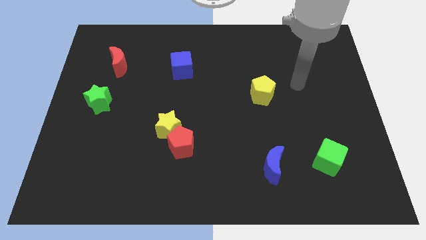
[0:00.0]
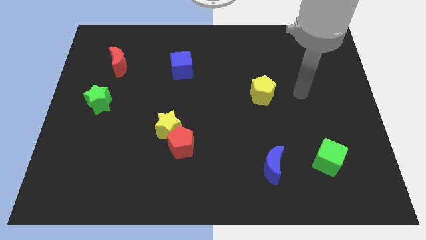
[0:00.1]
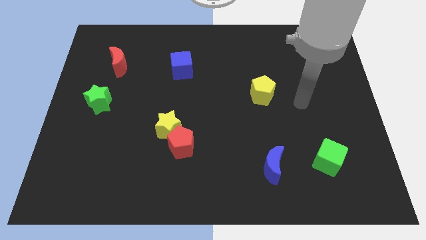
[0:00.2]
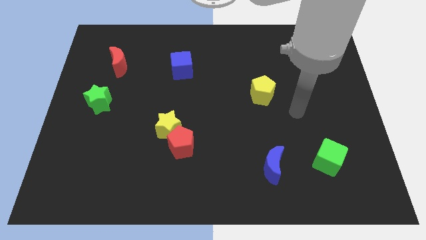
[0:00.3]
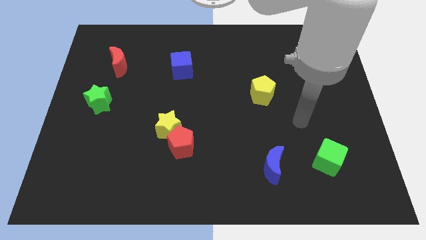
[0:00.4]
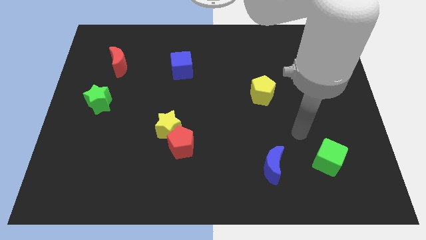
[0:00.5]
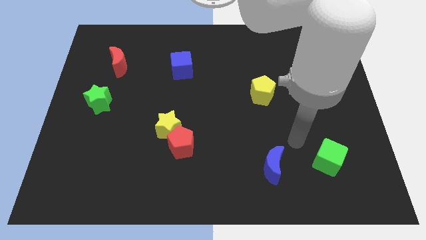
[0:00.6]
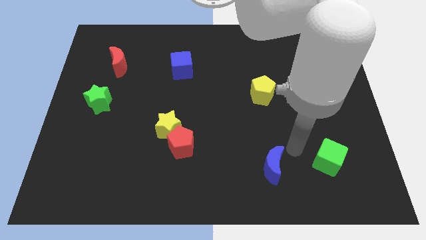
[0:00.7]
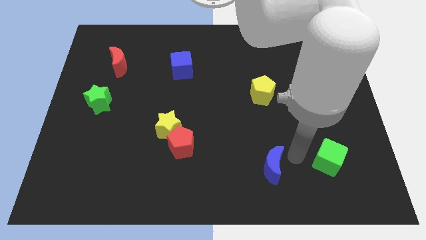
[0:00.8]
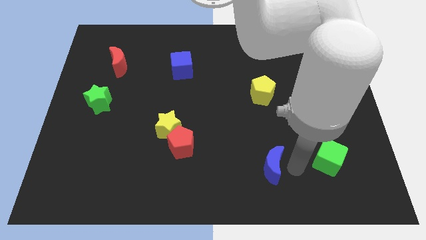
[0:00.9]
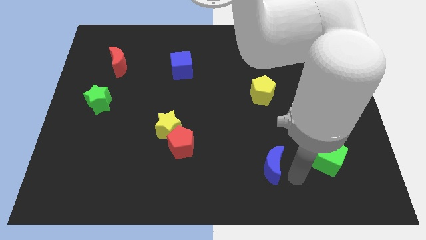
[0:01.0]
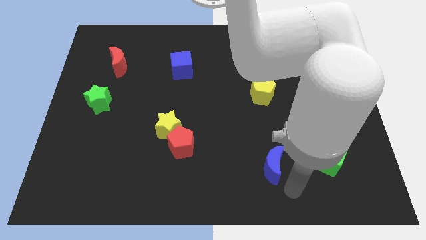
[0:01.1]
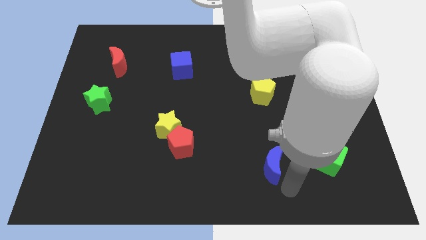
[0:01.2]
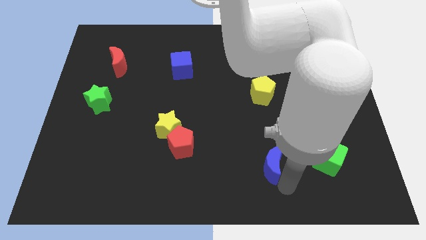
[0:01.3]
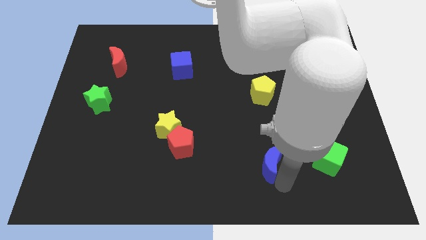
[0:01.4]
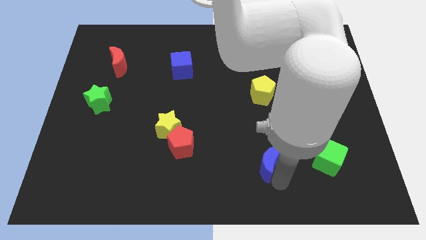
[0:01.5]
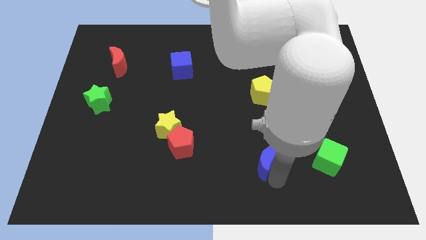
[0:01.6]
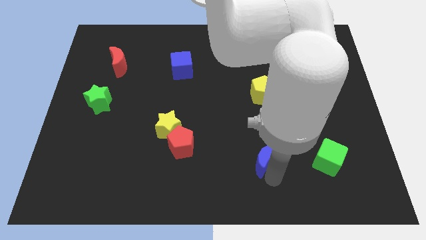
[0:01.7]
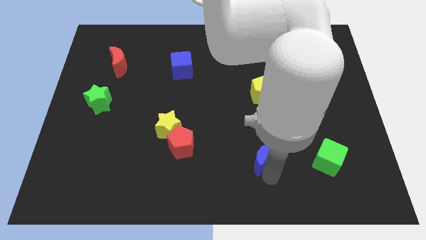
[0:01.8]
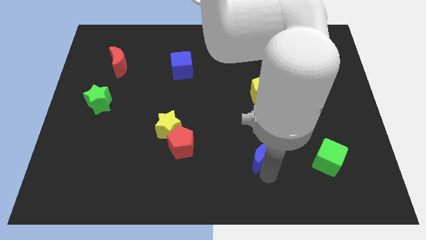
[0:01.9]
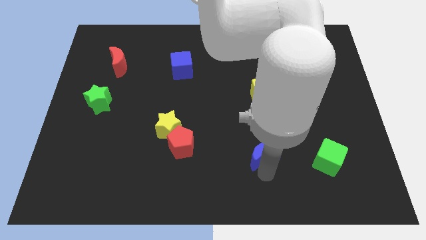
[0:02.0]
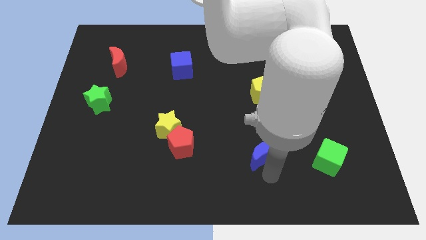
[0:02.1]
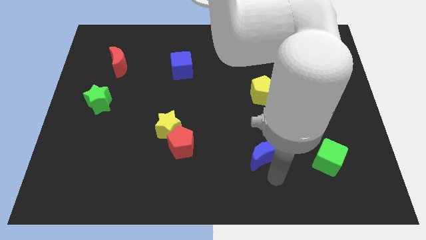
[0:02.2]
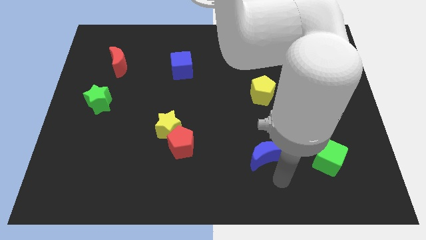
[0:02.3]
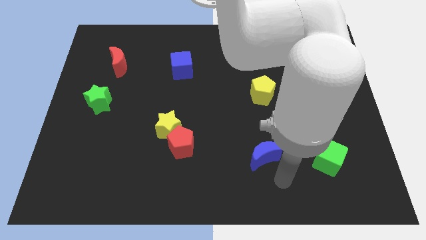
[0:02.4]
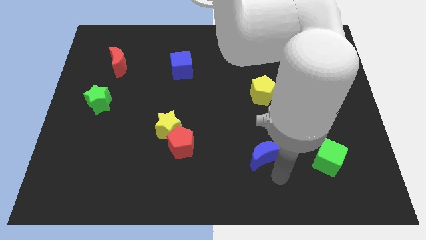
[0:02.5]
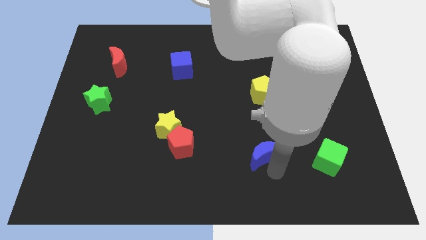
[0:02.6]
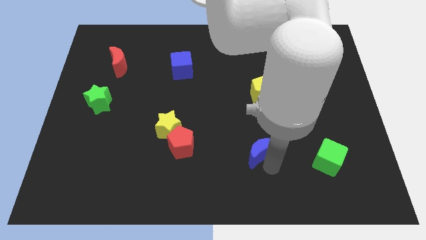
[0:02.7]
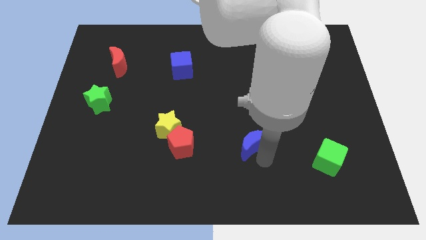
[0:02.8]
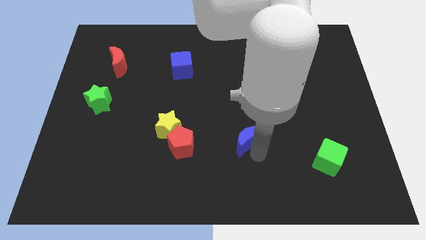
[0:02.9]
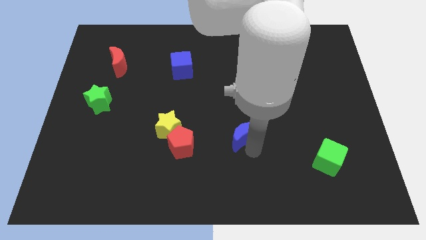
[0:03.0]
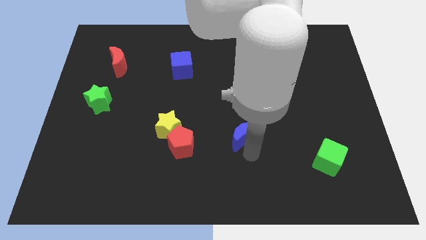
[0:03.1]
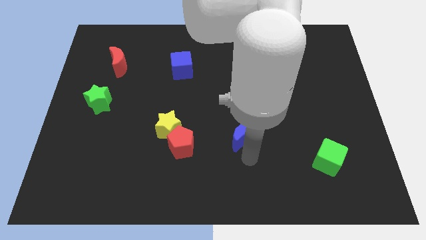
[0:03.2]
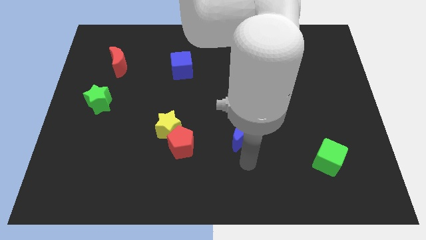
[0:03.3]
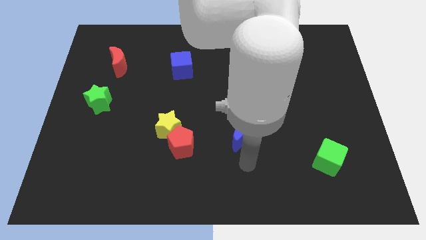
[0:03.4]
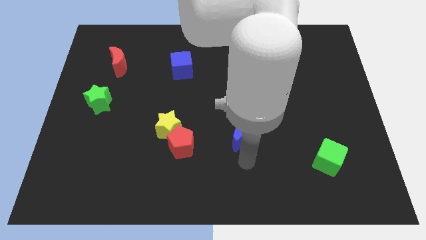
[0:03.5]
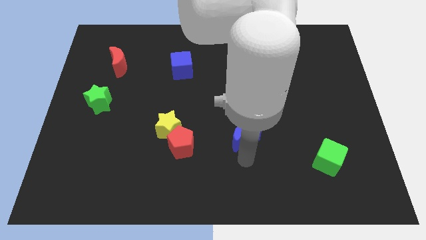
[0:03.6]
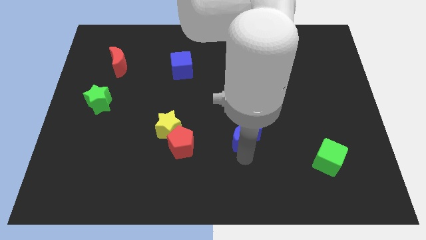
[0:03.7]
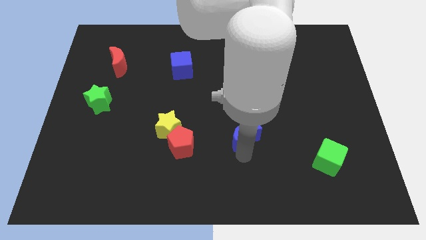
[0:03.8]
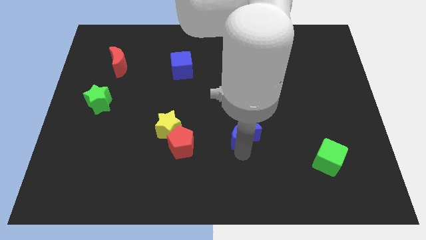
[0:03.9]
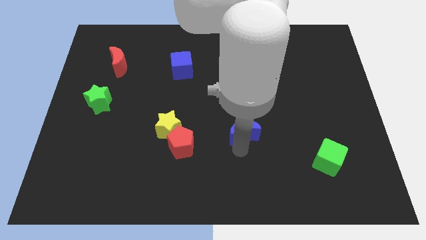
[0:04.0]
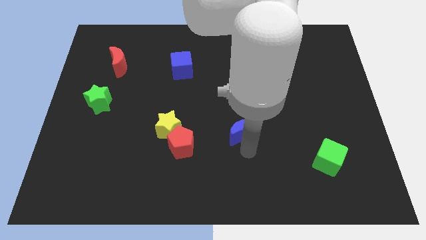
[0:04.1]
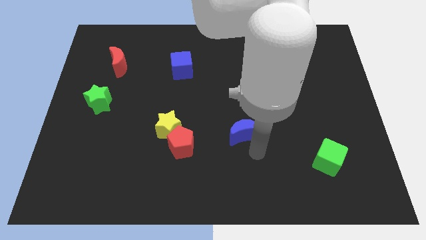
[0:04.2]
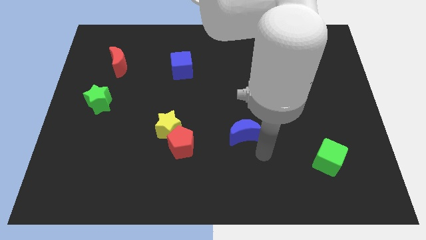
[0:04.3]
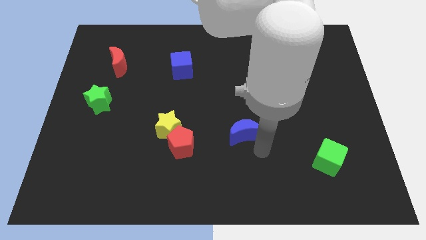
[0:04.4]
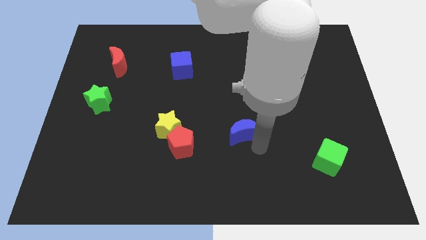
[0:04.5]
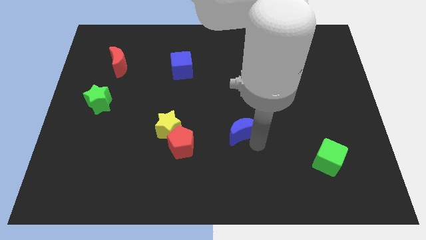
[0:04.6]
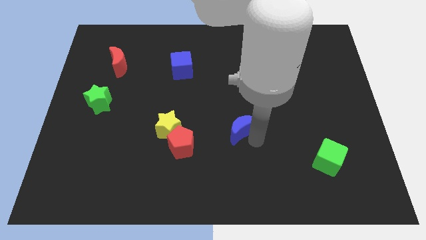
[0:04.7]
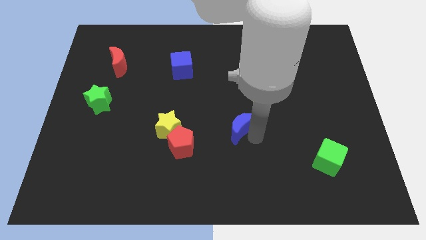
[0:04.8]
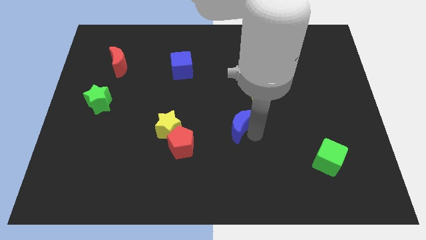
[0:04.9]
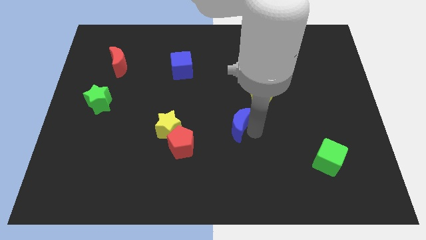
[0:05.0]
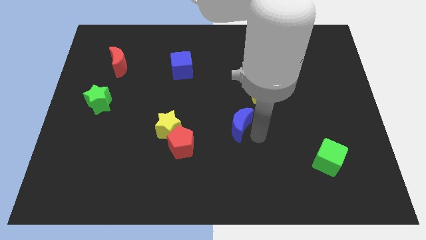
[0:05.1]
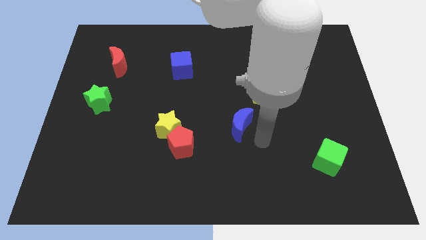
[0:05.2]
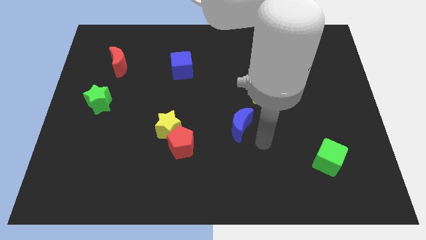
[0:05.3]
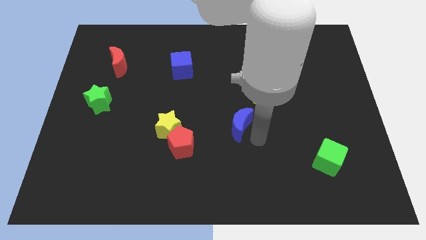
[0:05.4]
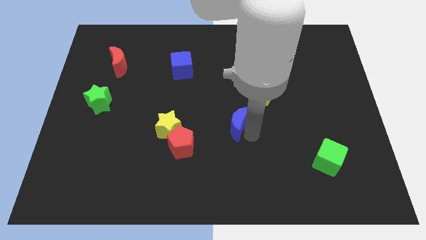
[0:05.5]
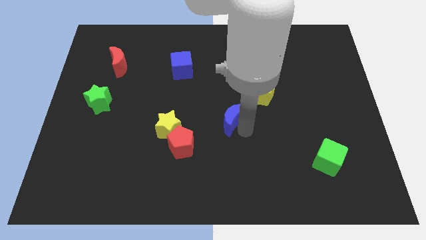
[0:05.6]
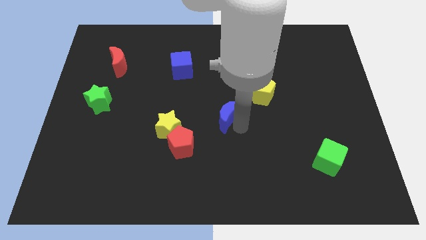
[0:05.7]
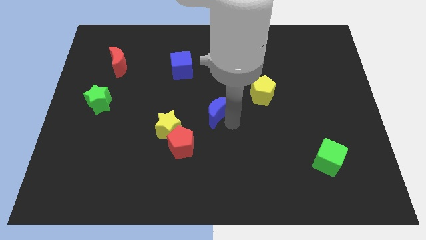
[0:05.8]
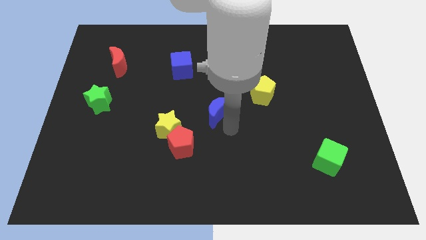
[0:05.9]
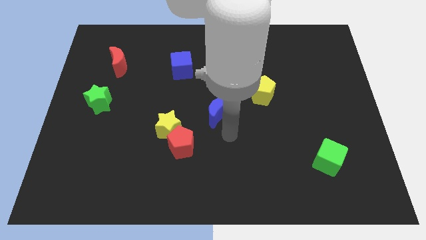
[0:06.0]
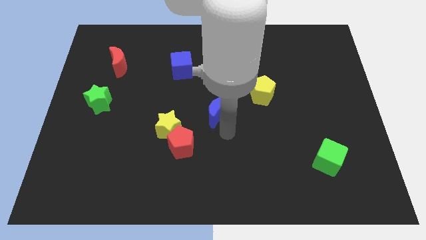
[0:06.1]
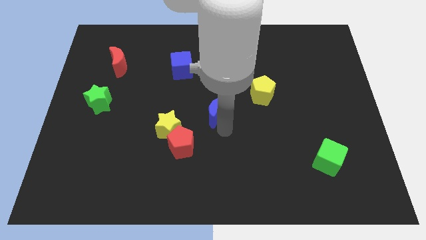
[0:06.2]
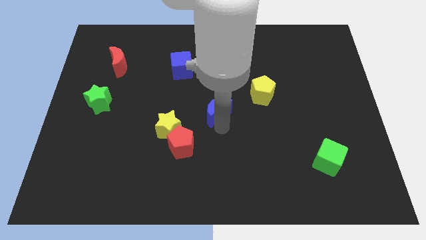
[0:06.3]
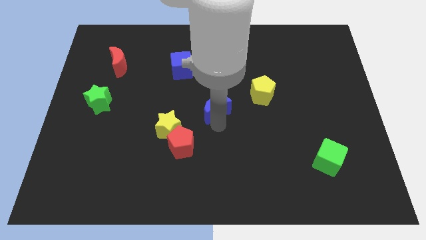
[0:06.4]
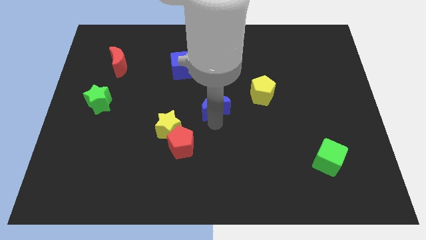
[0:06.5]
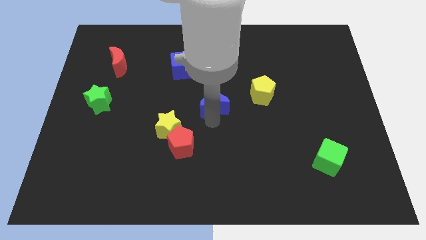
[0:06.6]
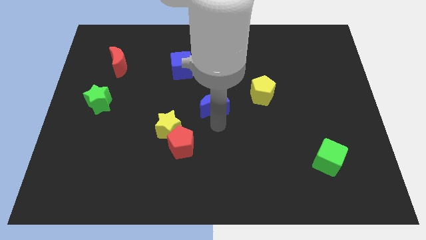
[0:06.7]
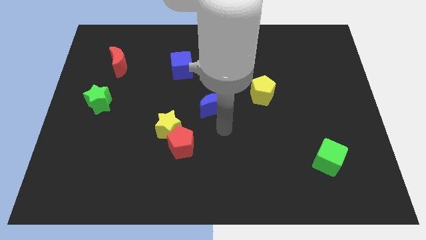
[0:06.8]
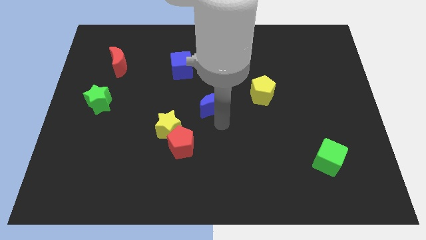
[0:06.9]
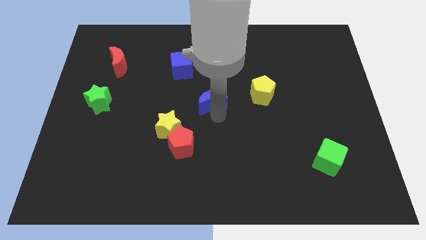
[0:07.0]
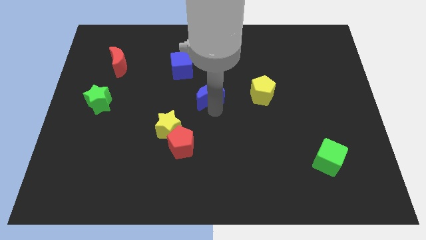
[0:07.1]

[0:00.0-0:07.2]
put the blue moon to the bottom right side of the blue cube
